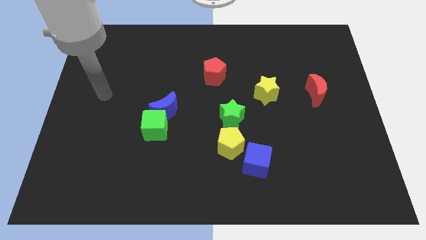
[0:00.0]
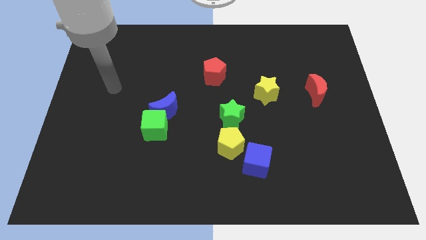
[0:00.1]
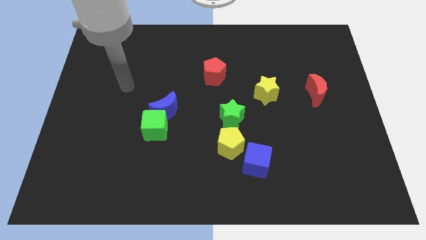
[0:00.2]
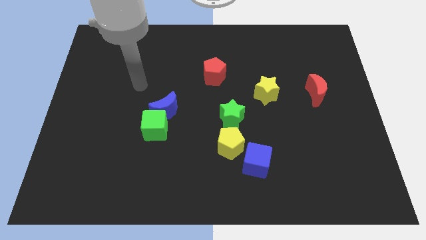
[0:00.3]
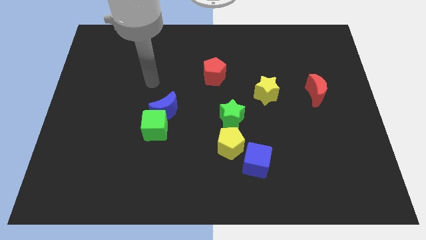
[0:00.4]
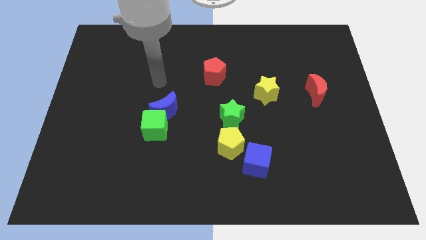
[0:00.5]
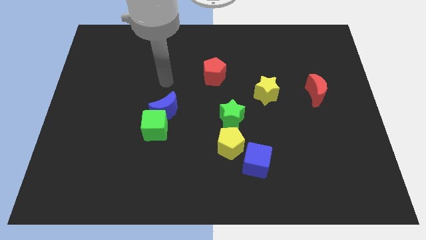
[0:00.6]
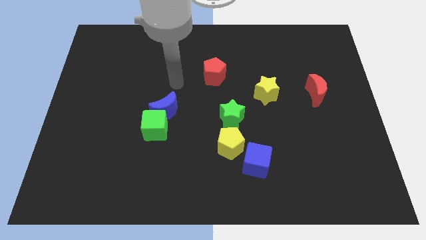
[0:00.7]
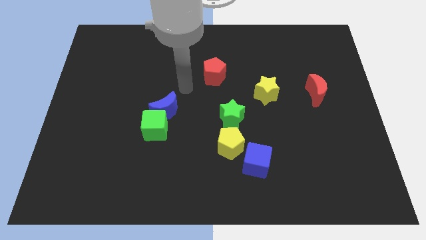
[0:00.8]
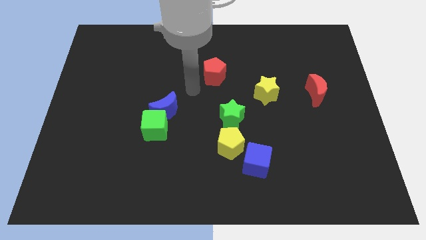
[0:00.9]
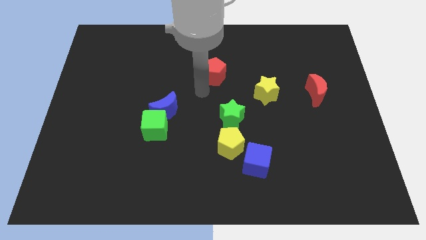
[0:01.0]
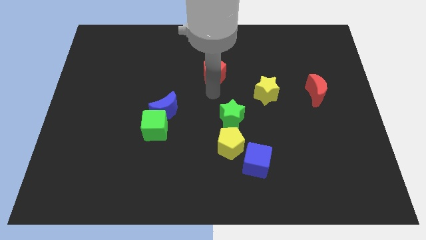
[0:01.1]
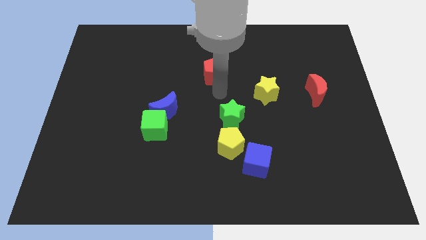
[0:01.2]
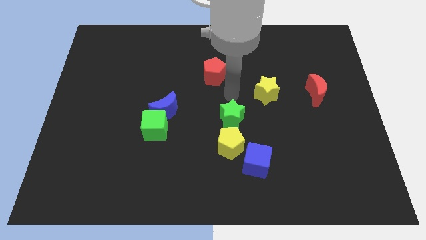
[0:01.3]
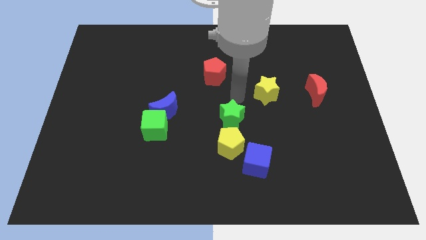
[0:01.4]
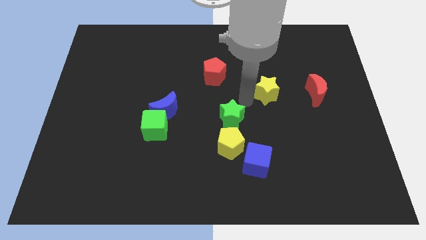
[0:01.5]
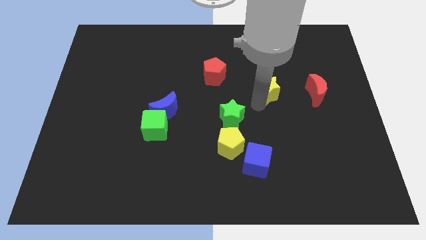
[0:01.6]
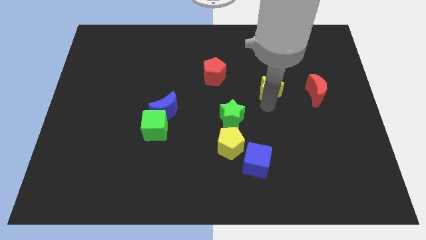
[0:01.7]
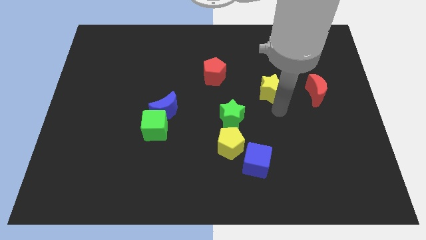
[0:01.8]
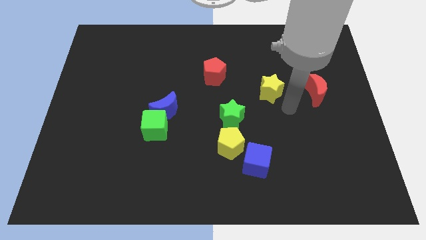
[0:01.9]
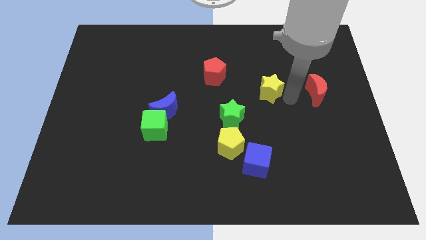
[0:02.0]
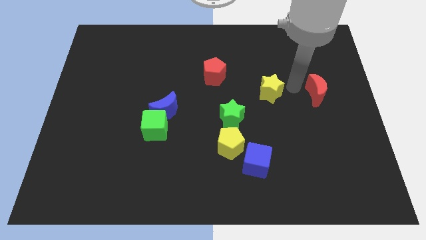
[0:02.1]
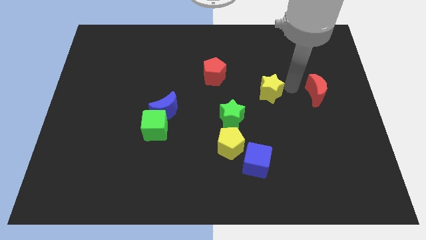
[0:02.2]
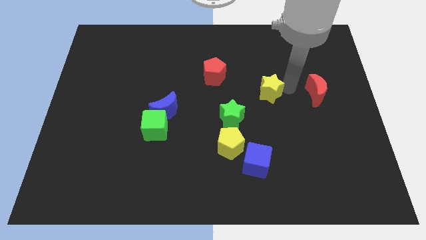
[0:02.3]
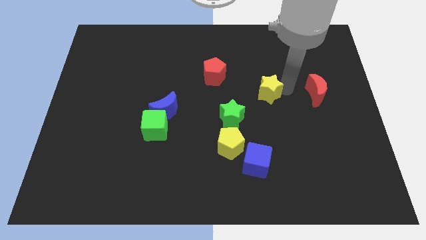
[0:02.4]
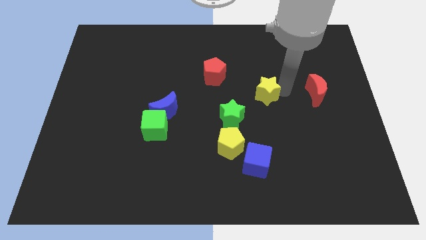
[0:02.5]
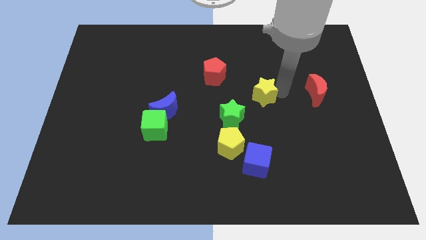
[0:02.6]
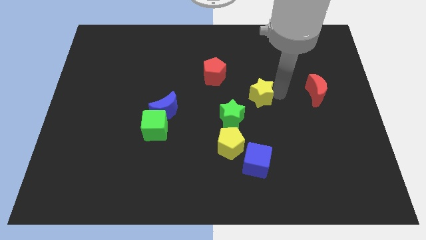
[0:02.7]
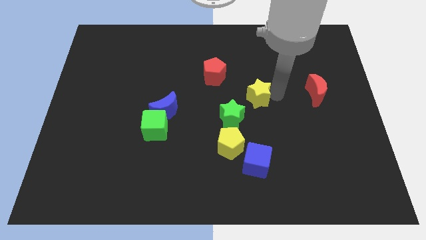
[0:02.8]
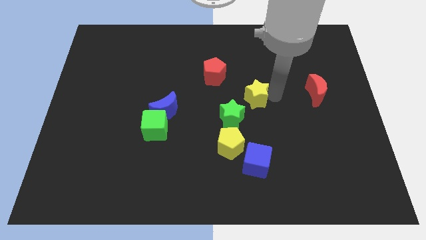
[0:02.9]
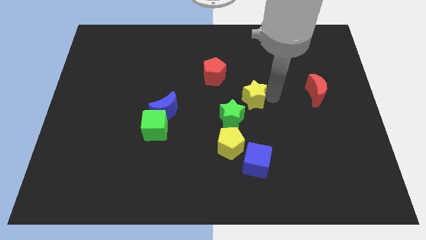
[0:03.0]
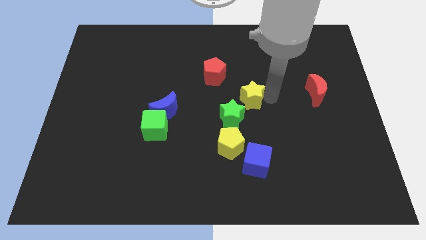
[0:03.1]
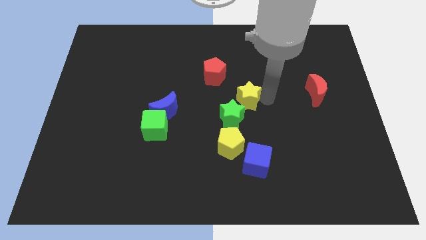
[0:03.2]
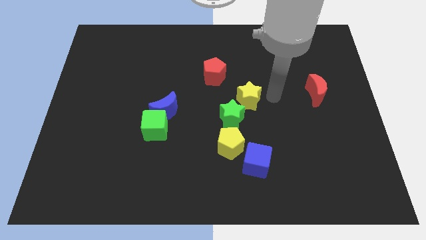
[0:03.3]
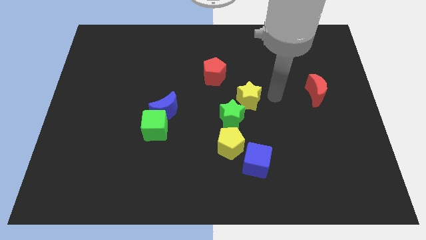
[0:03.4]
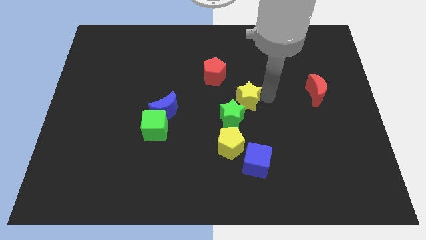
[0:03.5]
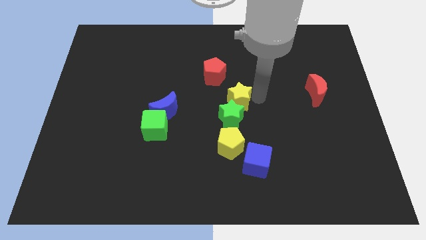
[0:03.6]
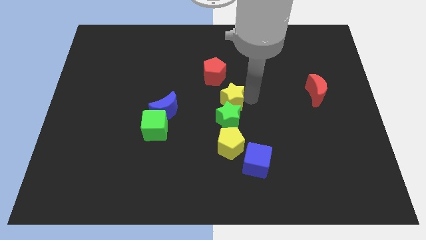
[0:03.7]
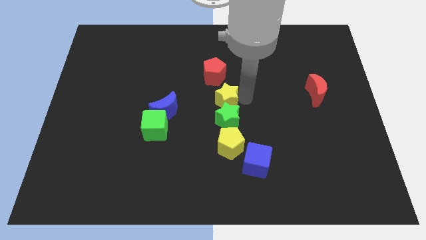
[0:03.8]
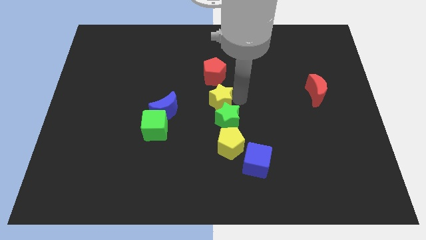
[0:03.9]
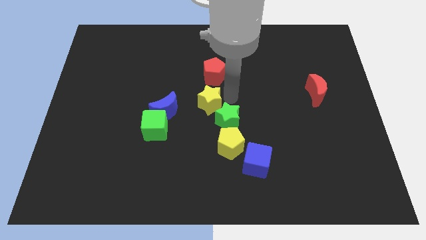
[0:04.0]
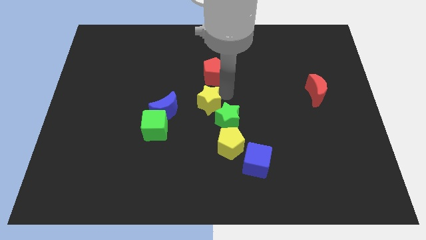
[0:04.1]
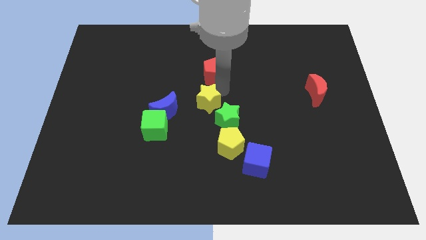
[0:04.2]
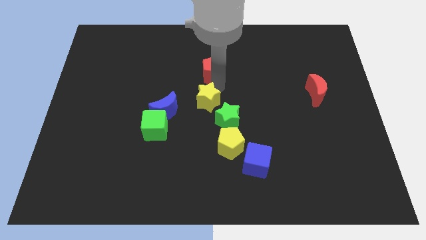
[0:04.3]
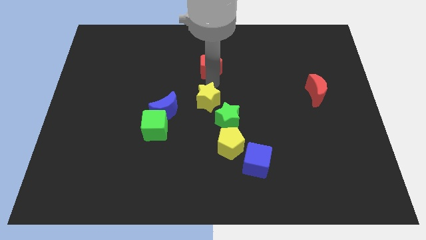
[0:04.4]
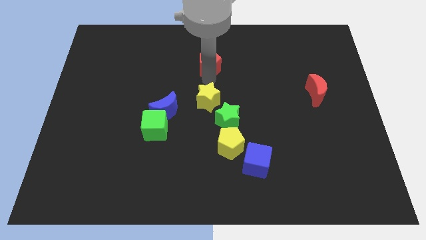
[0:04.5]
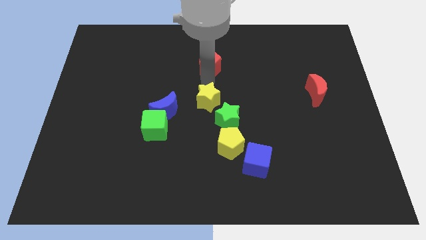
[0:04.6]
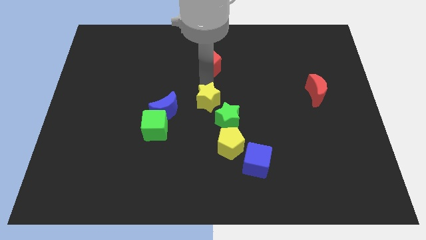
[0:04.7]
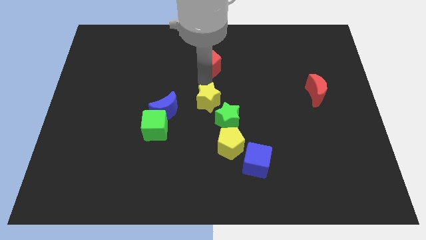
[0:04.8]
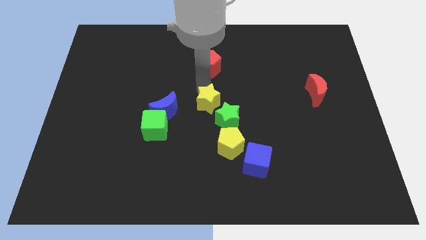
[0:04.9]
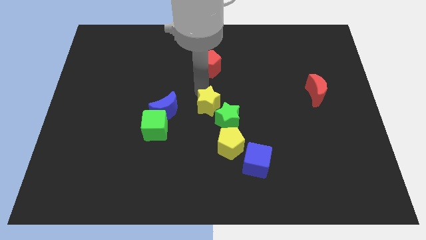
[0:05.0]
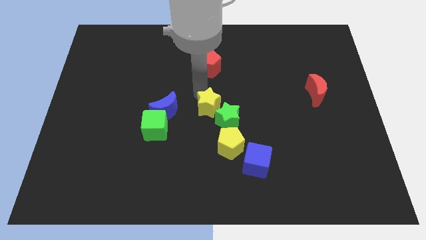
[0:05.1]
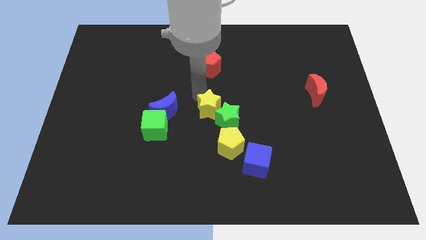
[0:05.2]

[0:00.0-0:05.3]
put the yellow star diagonally up and to the left of the yellow pentagon

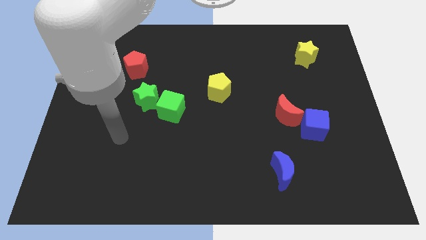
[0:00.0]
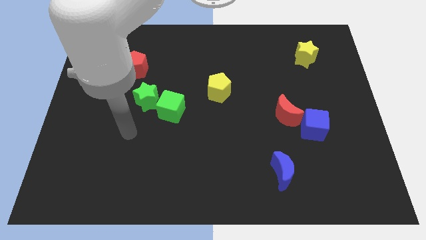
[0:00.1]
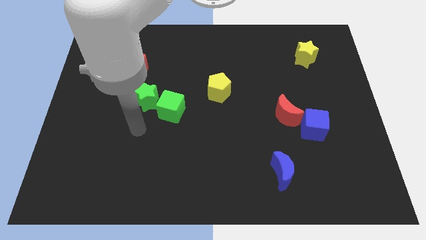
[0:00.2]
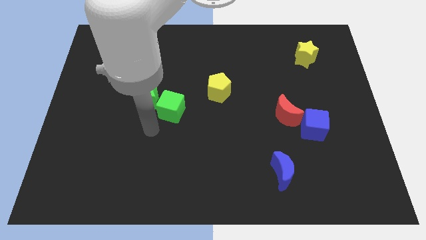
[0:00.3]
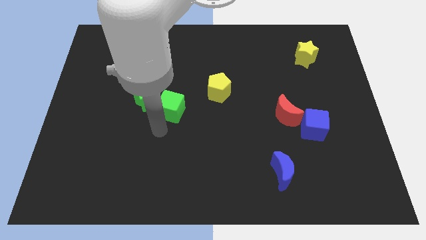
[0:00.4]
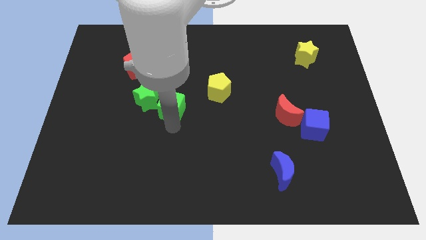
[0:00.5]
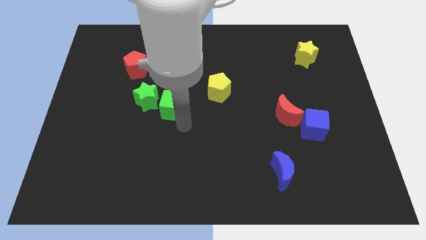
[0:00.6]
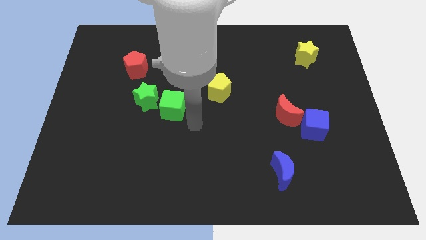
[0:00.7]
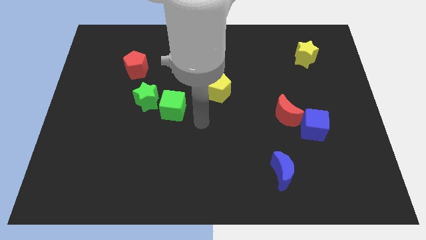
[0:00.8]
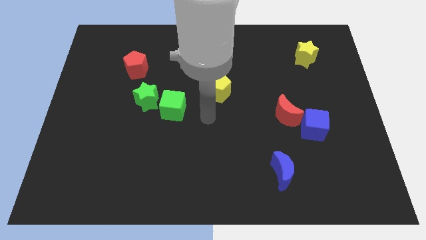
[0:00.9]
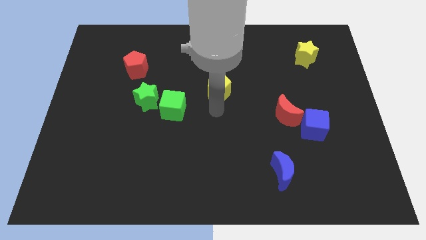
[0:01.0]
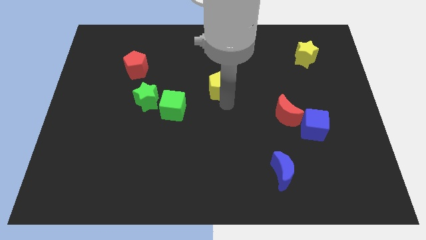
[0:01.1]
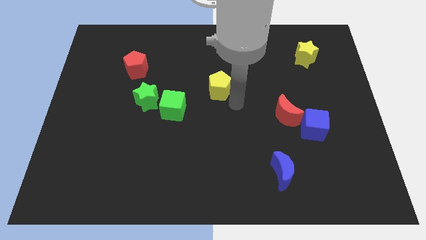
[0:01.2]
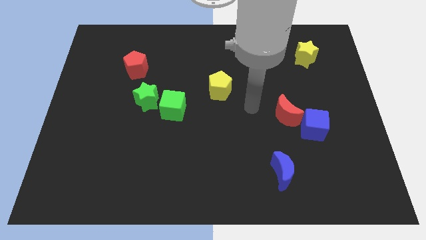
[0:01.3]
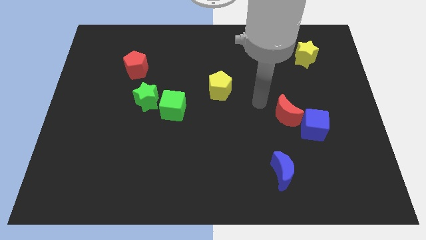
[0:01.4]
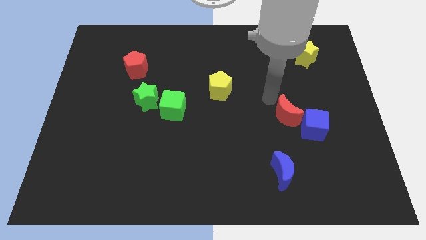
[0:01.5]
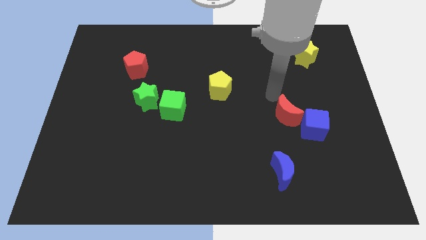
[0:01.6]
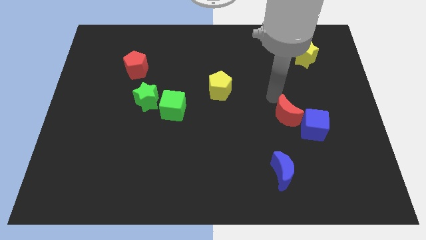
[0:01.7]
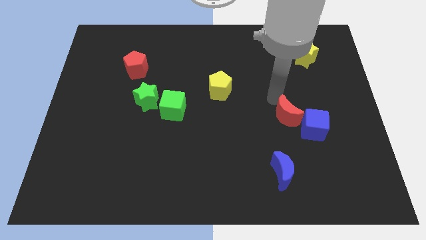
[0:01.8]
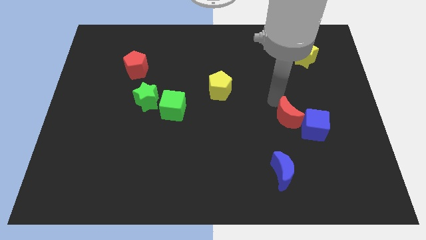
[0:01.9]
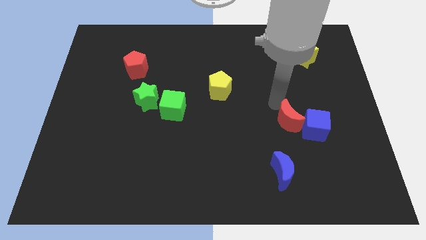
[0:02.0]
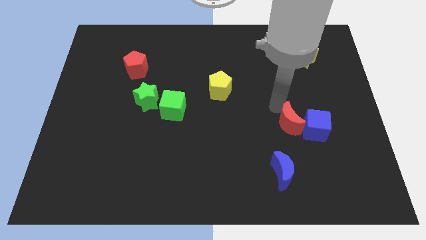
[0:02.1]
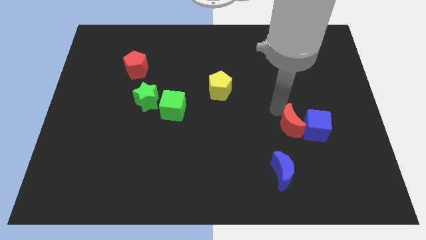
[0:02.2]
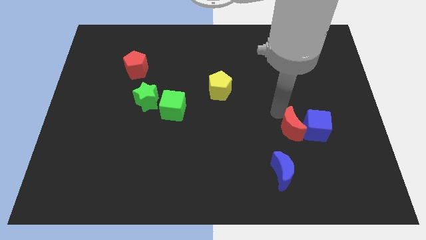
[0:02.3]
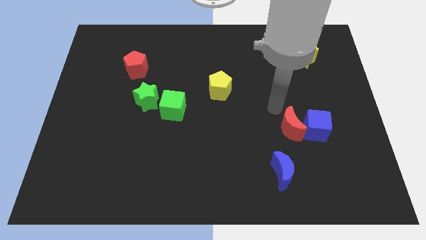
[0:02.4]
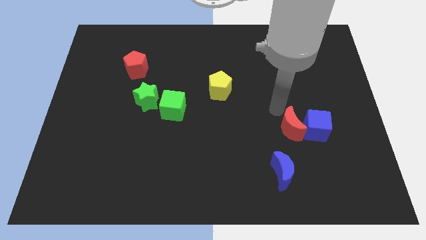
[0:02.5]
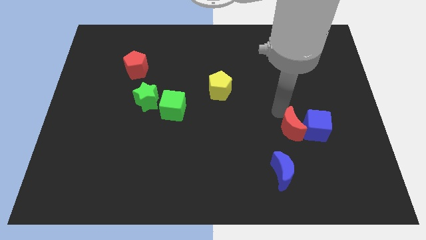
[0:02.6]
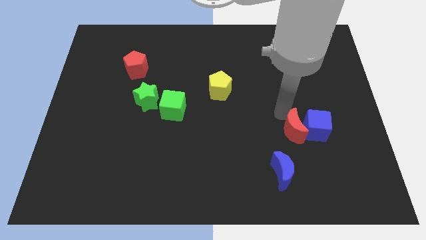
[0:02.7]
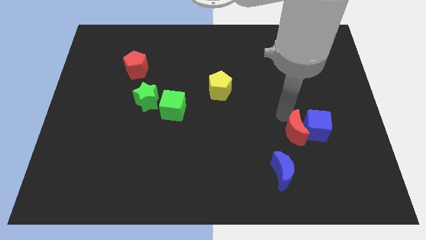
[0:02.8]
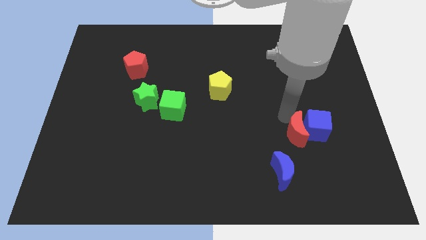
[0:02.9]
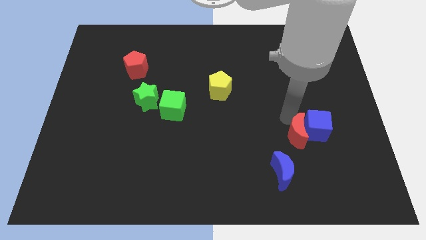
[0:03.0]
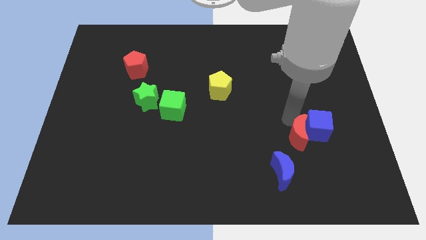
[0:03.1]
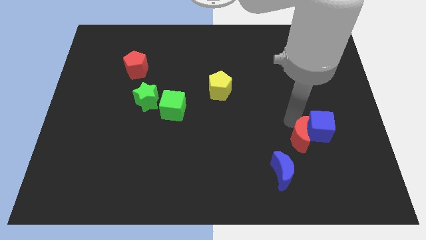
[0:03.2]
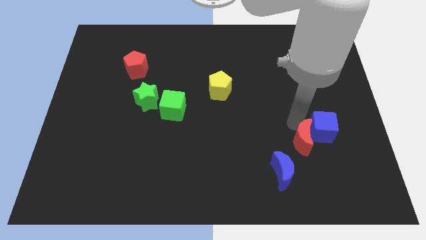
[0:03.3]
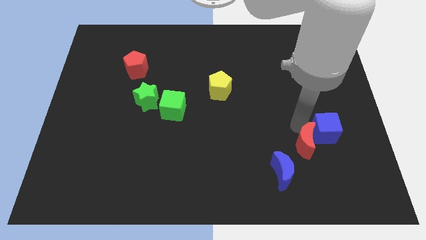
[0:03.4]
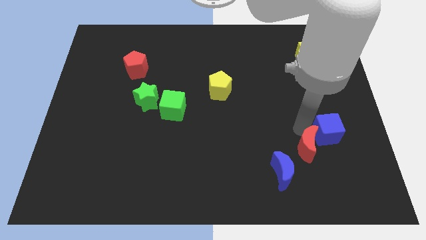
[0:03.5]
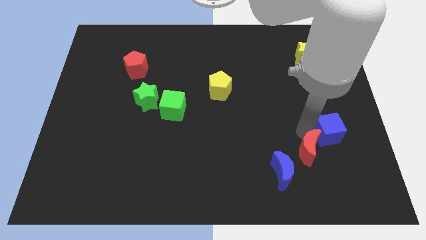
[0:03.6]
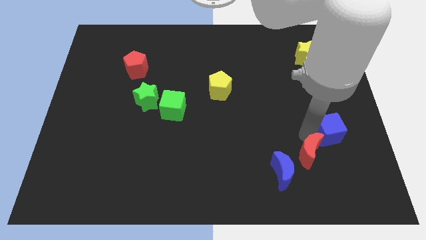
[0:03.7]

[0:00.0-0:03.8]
slide the red moon to the bottom of the blue cube
